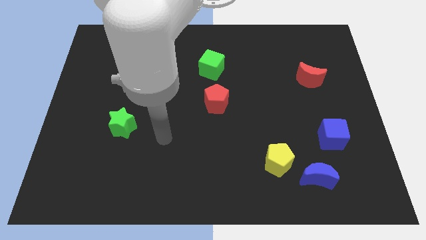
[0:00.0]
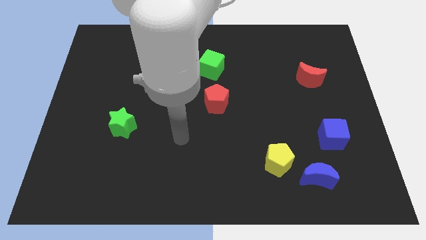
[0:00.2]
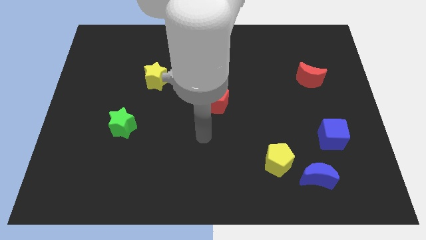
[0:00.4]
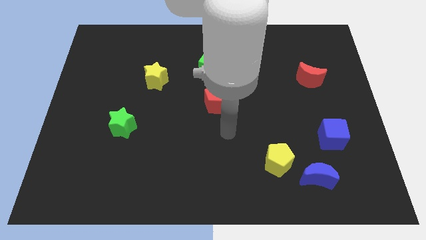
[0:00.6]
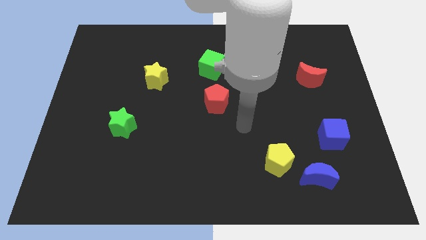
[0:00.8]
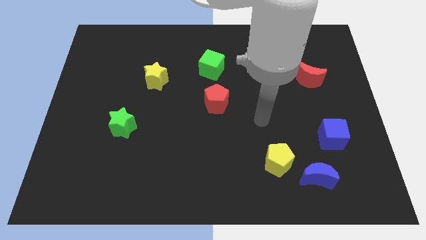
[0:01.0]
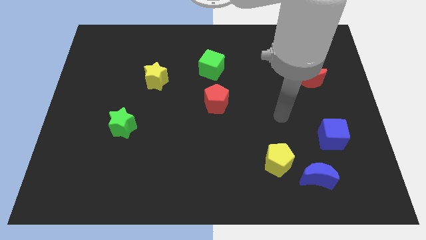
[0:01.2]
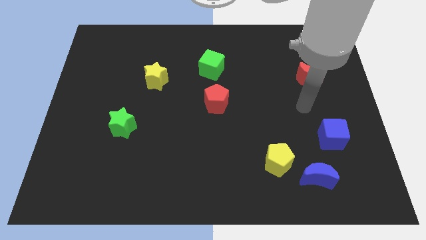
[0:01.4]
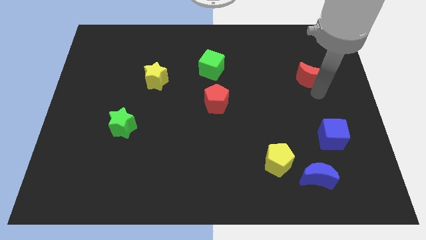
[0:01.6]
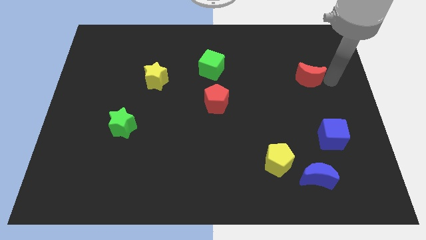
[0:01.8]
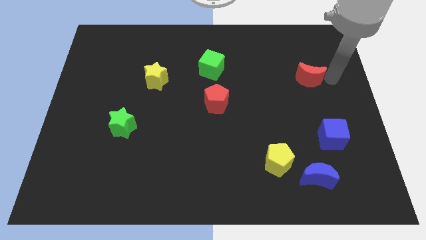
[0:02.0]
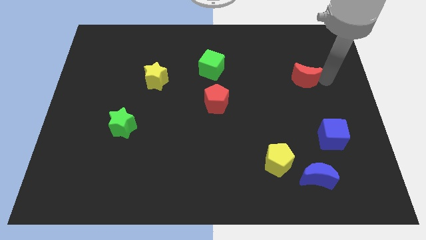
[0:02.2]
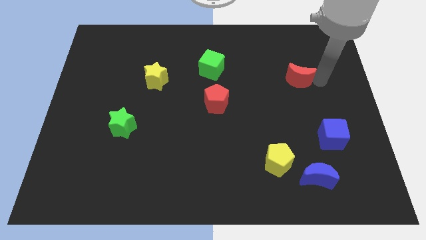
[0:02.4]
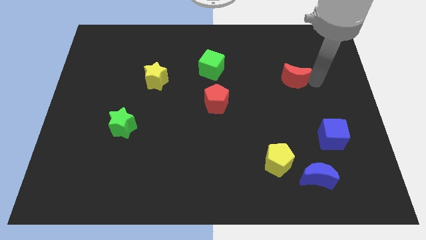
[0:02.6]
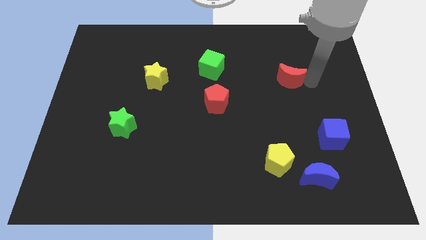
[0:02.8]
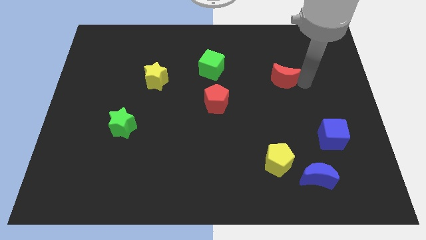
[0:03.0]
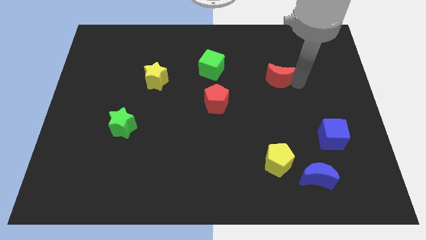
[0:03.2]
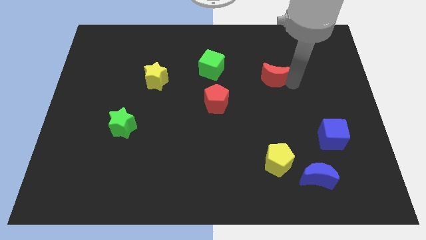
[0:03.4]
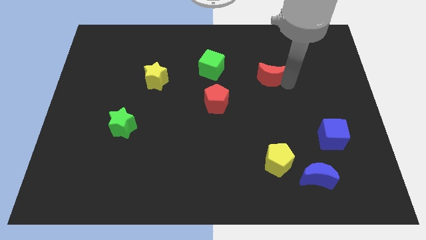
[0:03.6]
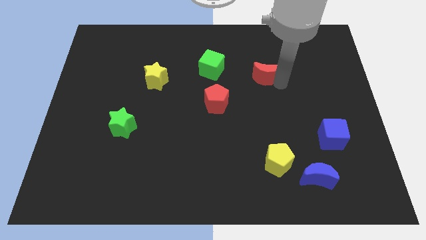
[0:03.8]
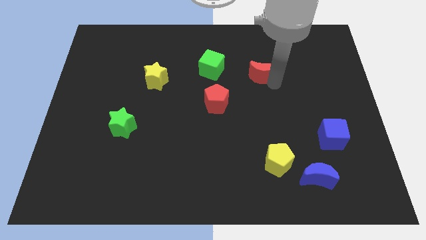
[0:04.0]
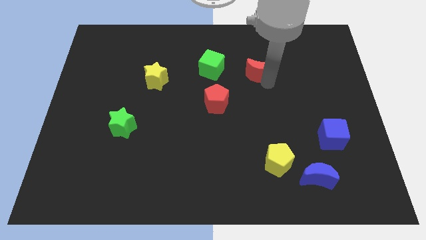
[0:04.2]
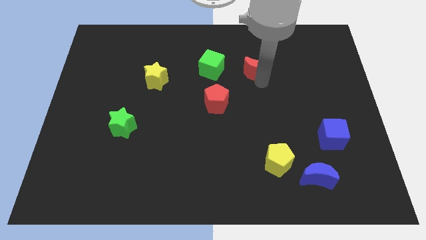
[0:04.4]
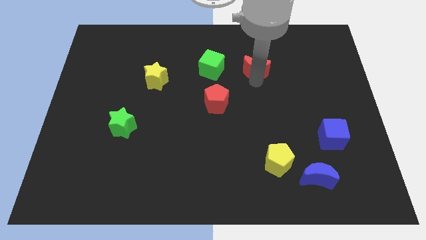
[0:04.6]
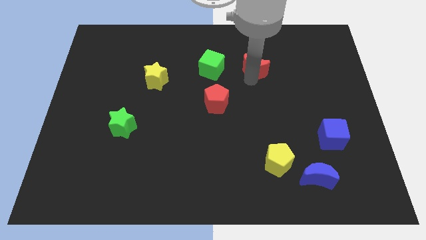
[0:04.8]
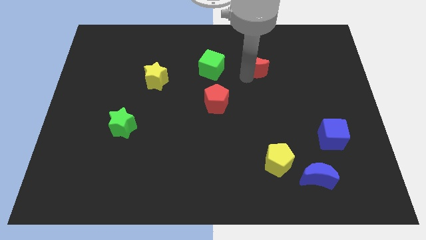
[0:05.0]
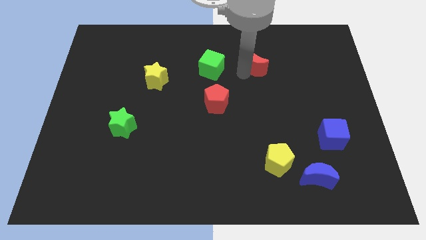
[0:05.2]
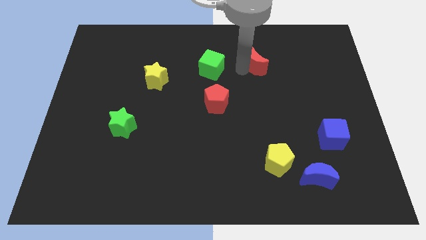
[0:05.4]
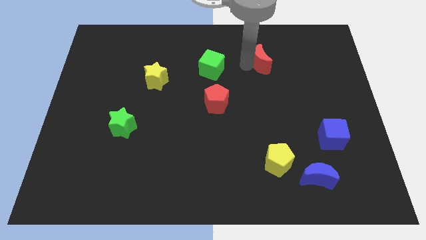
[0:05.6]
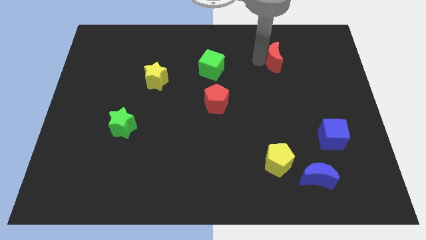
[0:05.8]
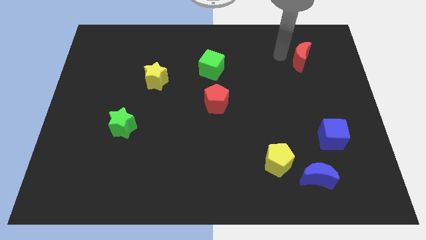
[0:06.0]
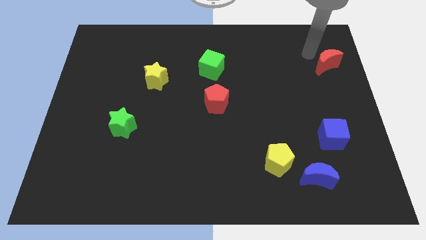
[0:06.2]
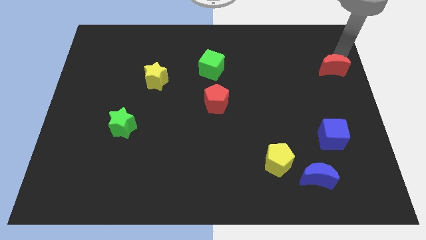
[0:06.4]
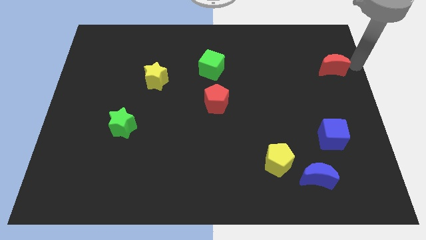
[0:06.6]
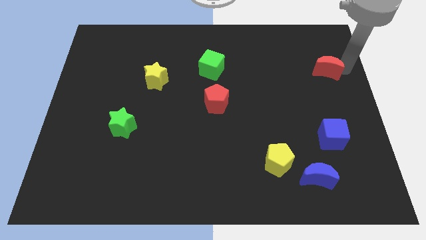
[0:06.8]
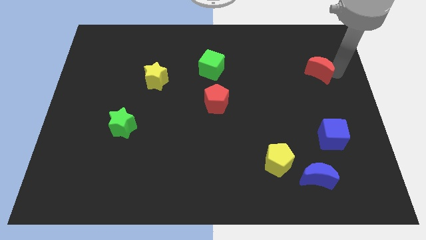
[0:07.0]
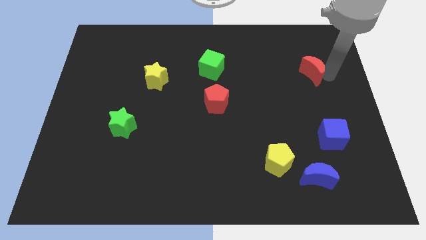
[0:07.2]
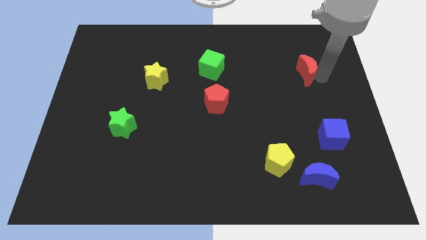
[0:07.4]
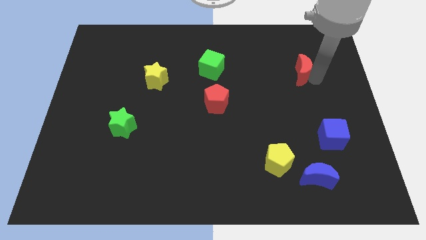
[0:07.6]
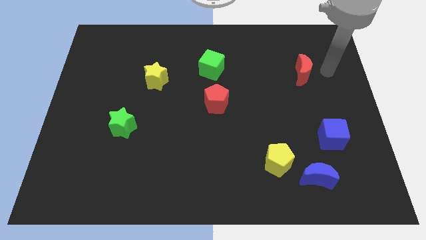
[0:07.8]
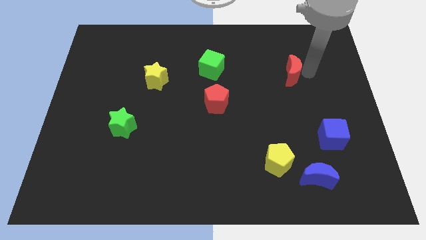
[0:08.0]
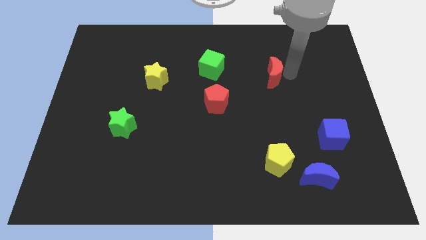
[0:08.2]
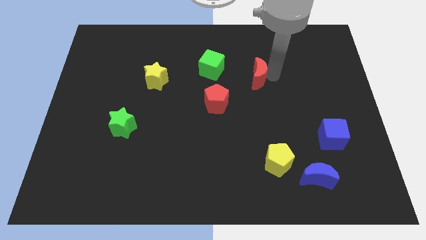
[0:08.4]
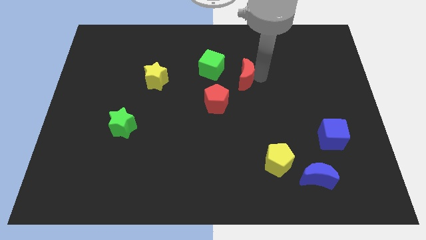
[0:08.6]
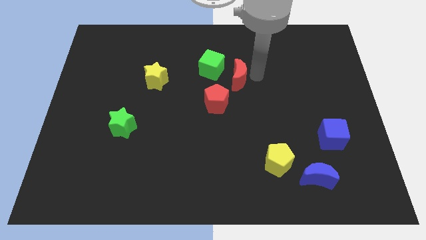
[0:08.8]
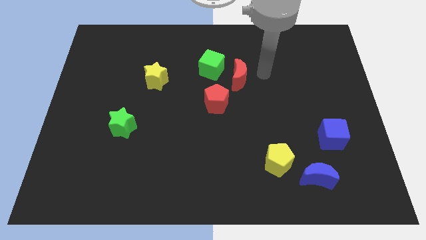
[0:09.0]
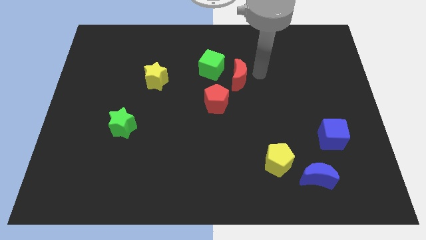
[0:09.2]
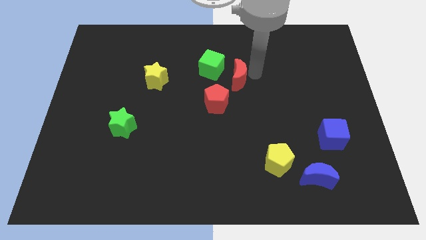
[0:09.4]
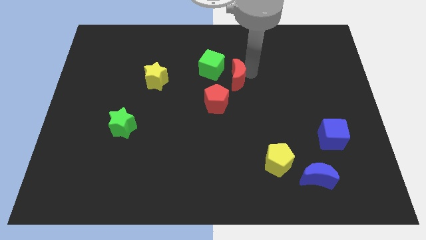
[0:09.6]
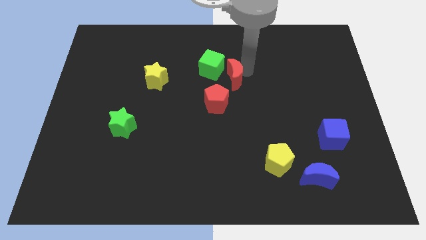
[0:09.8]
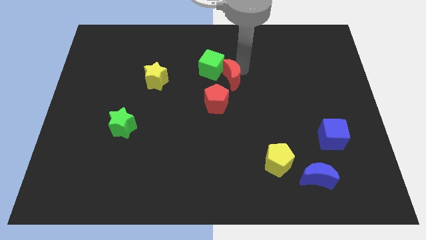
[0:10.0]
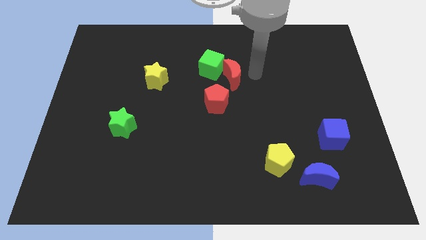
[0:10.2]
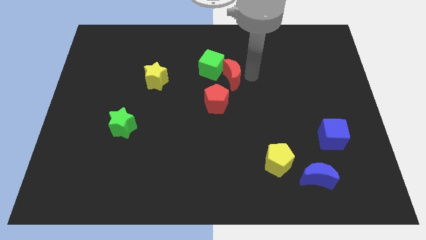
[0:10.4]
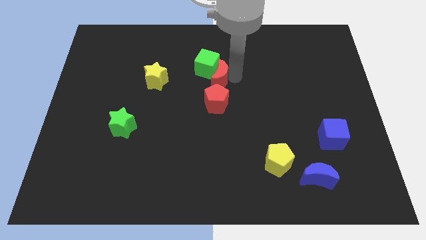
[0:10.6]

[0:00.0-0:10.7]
move the red moon to the right side of the yellow star

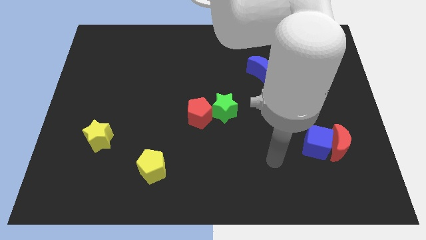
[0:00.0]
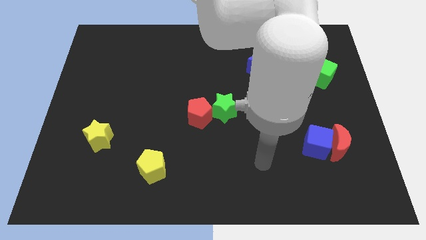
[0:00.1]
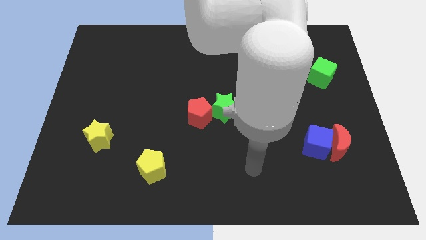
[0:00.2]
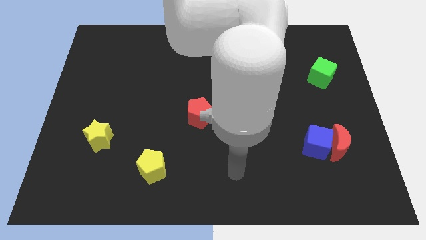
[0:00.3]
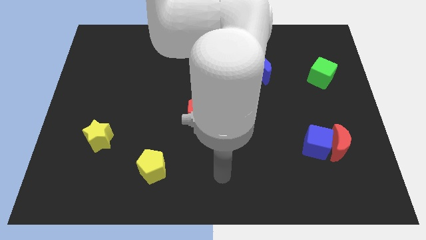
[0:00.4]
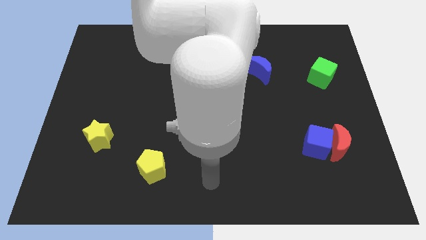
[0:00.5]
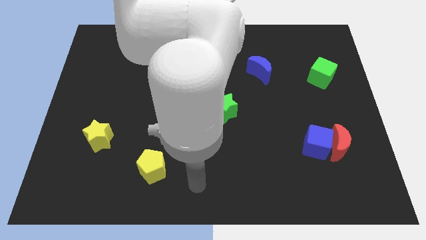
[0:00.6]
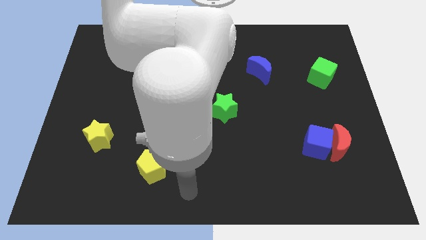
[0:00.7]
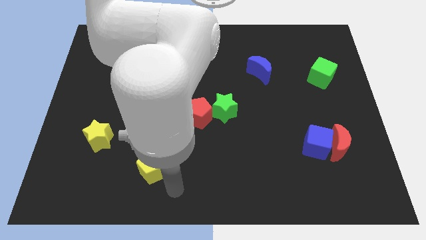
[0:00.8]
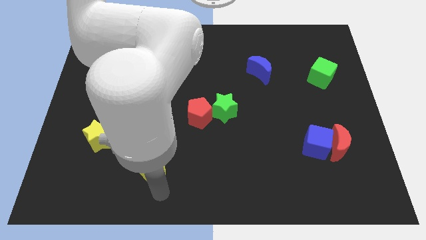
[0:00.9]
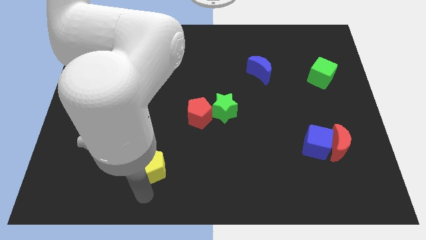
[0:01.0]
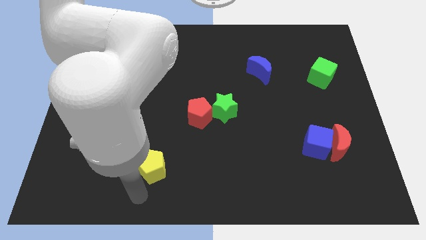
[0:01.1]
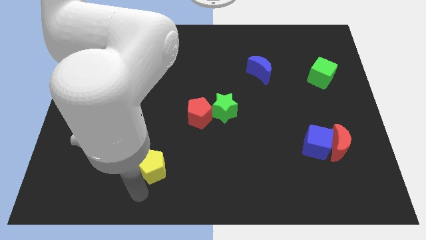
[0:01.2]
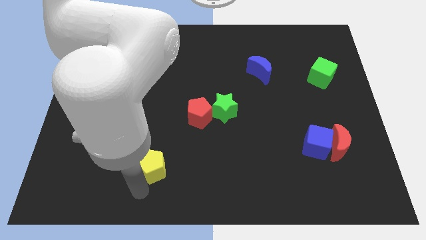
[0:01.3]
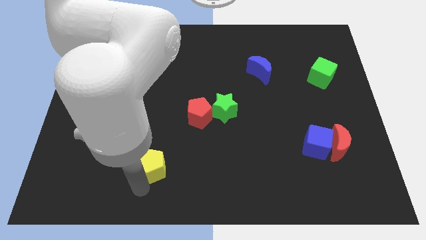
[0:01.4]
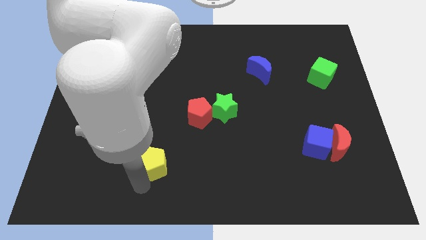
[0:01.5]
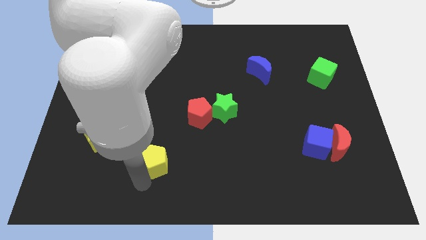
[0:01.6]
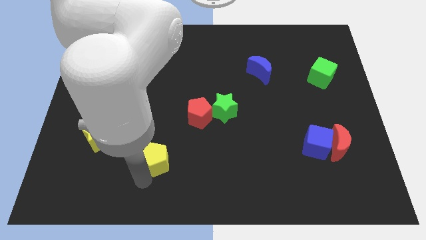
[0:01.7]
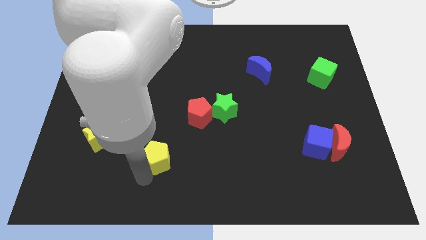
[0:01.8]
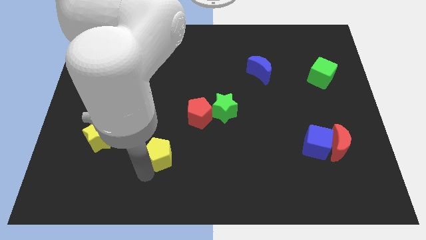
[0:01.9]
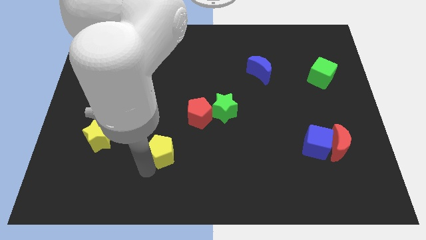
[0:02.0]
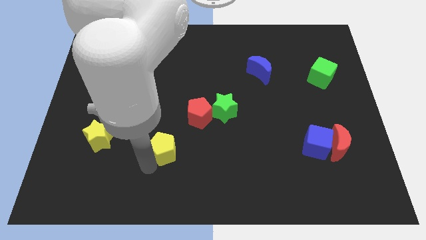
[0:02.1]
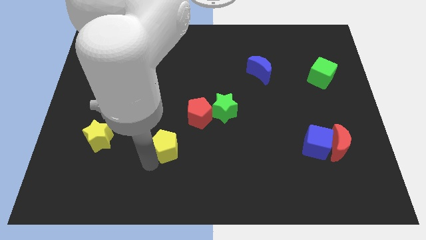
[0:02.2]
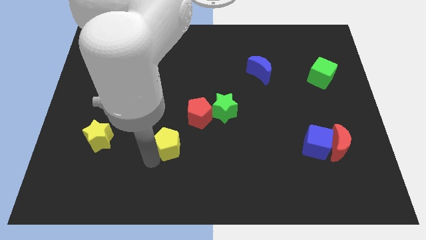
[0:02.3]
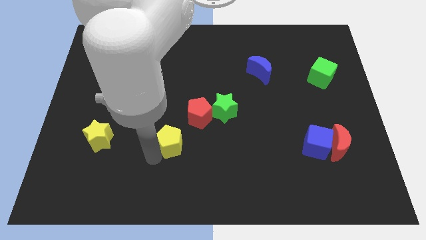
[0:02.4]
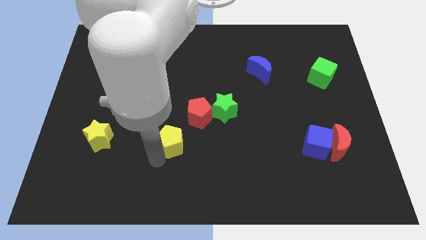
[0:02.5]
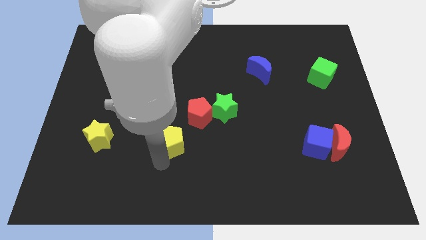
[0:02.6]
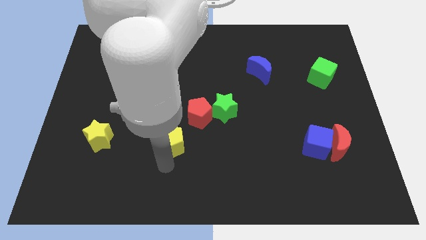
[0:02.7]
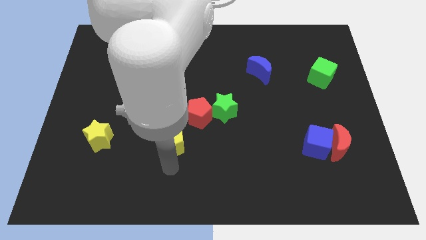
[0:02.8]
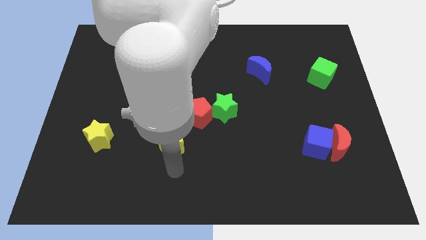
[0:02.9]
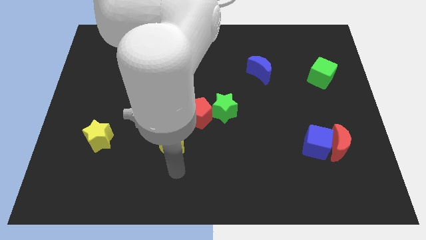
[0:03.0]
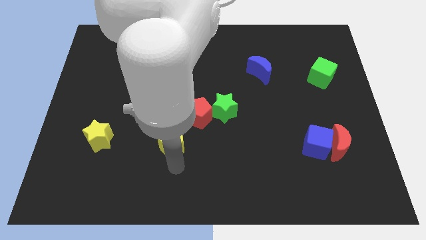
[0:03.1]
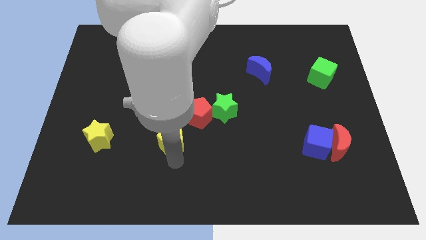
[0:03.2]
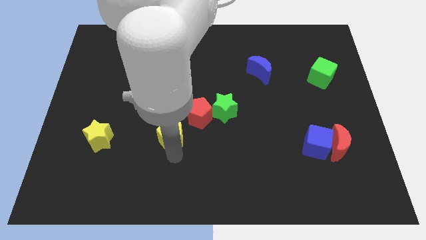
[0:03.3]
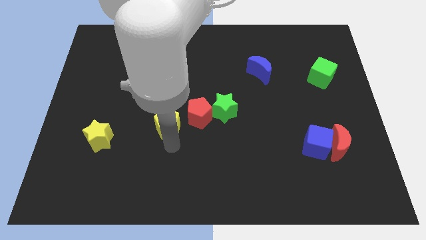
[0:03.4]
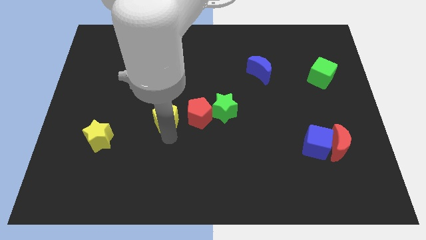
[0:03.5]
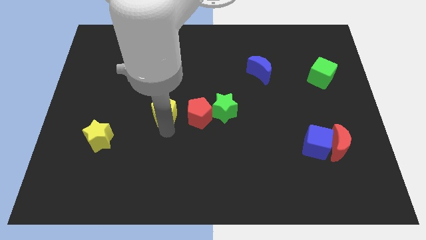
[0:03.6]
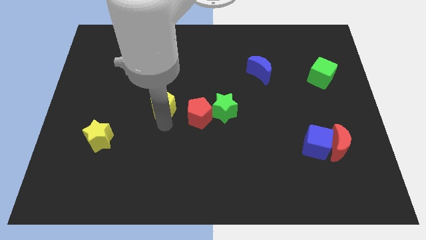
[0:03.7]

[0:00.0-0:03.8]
move the yellow pentagon to the top left of the red pentagon
